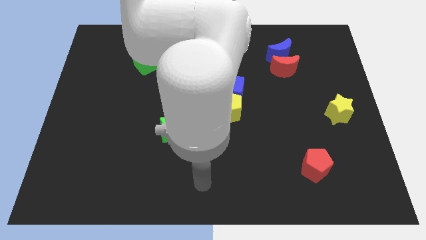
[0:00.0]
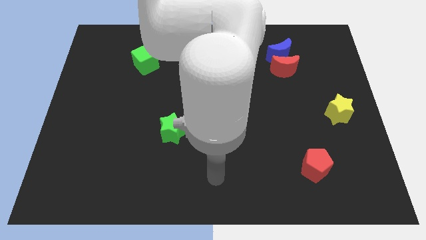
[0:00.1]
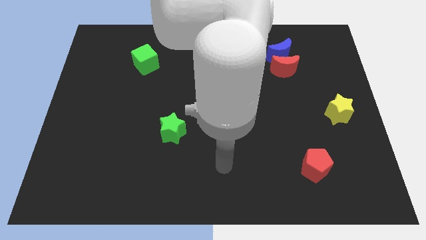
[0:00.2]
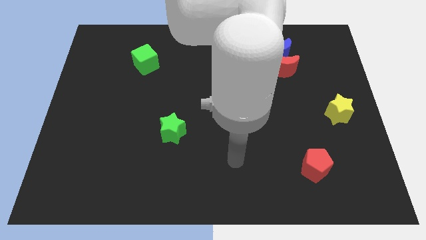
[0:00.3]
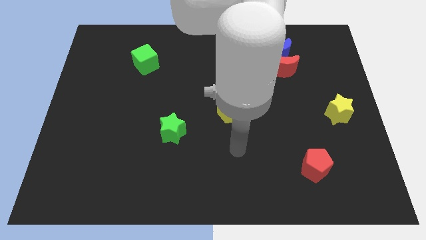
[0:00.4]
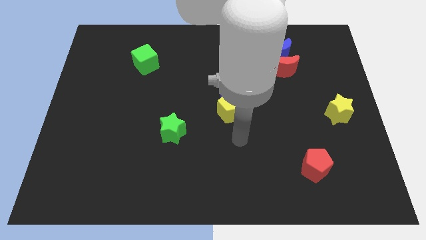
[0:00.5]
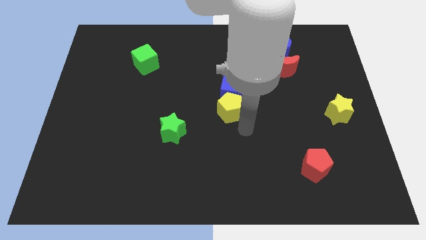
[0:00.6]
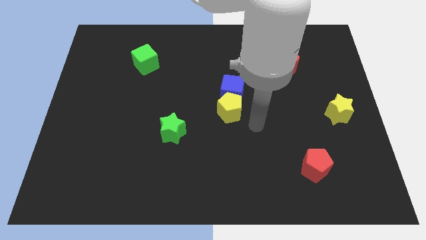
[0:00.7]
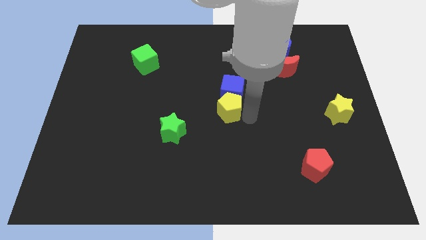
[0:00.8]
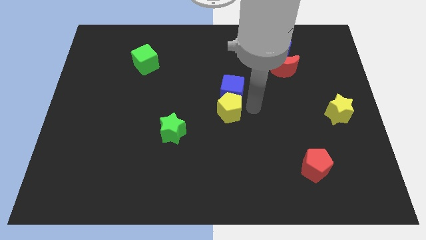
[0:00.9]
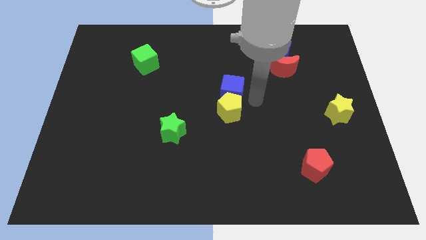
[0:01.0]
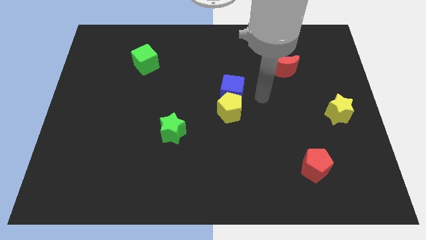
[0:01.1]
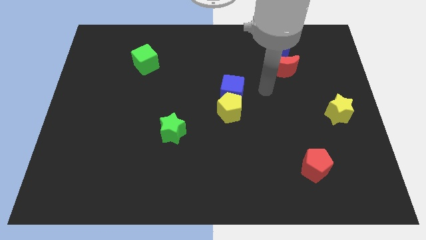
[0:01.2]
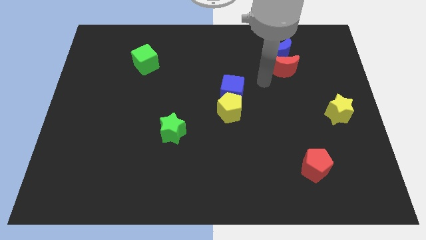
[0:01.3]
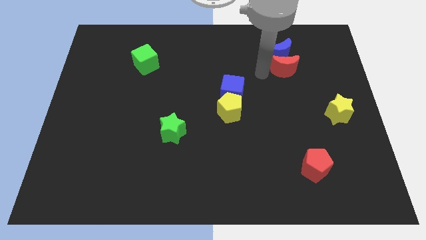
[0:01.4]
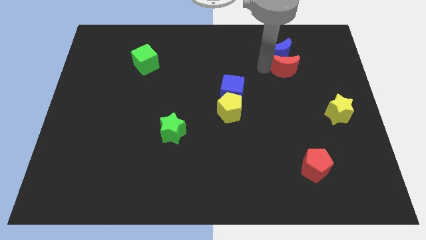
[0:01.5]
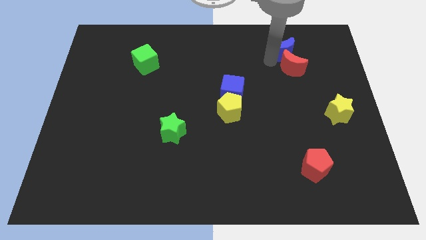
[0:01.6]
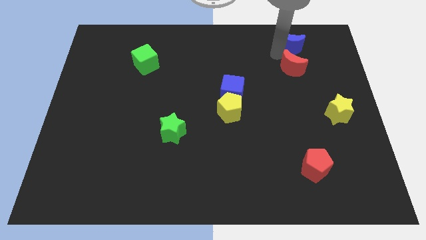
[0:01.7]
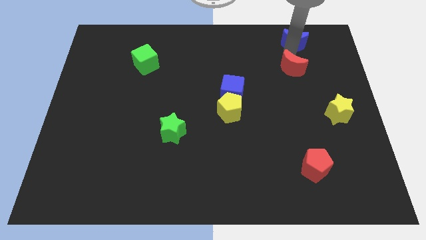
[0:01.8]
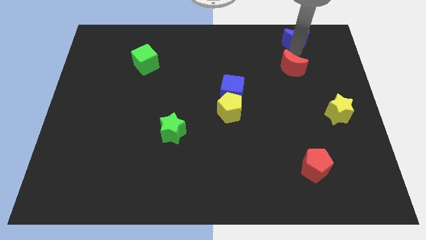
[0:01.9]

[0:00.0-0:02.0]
pull the red moon apart from the blue moon

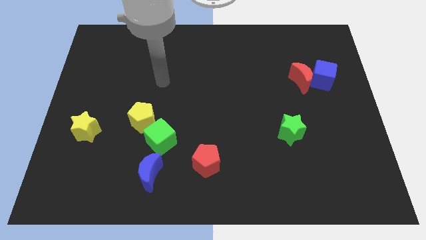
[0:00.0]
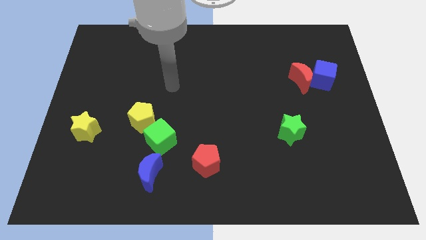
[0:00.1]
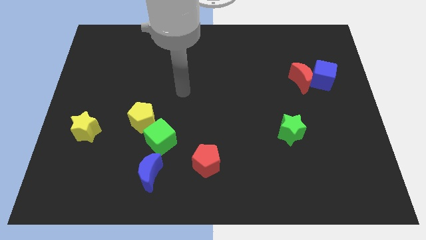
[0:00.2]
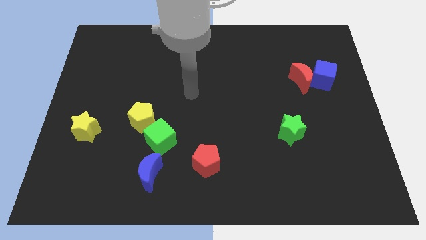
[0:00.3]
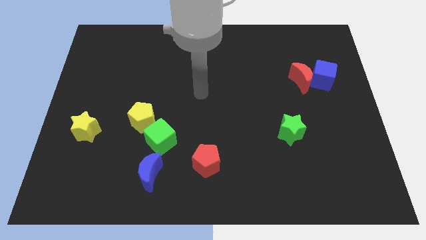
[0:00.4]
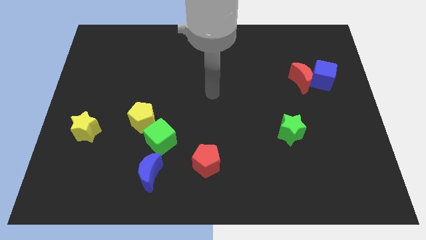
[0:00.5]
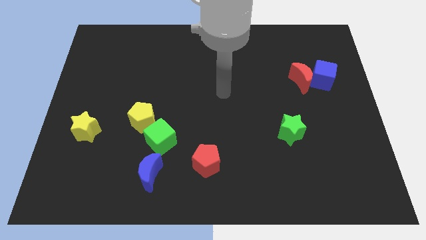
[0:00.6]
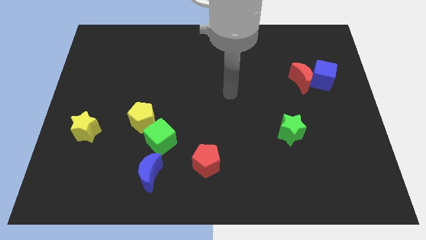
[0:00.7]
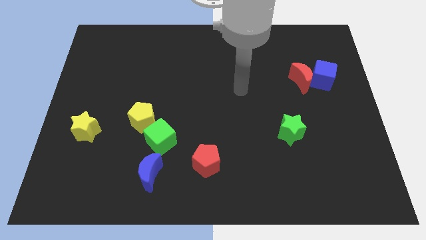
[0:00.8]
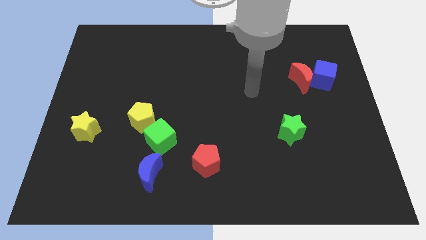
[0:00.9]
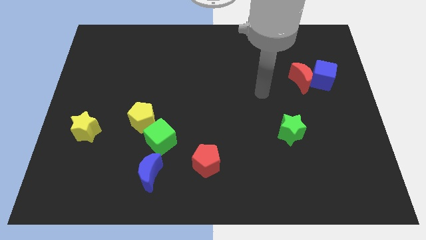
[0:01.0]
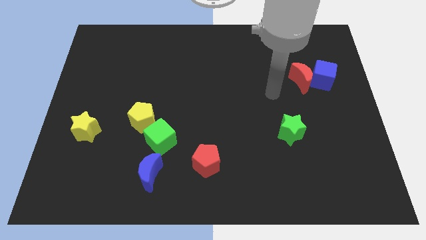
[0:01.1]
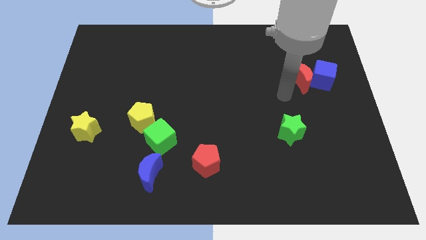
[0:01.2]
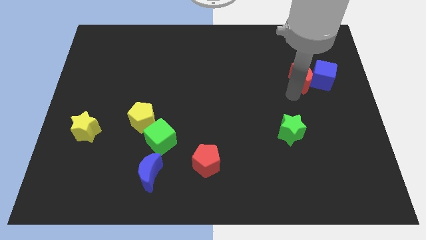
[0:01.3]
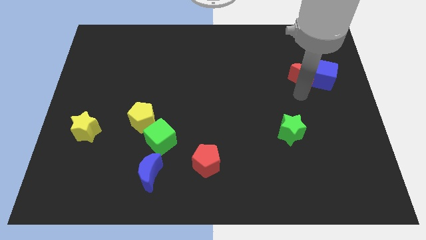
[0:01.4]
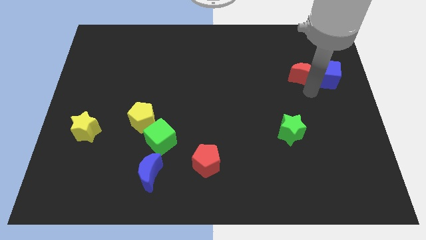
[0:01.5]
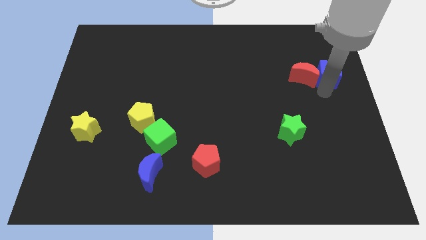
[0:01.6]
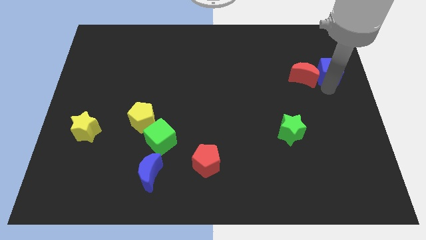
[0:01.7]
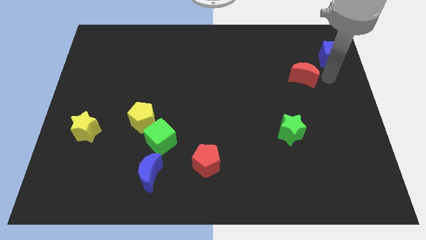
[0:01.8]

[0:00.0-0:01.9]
pull the red moon apart from the blue cube

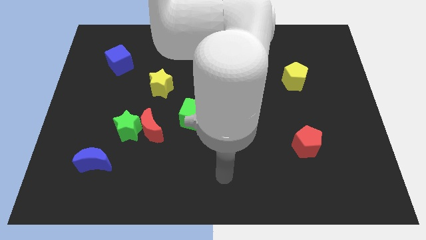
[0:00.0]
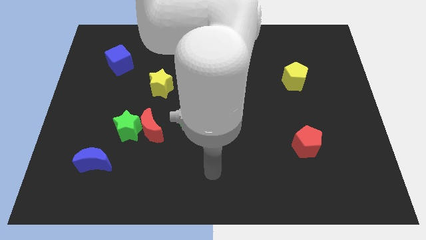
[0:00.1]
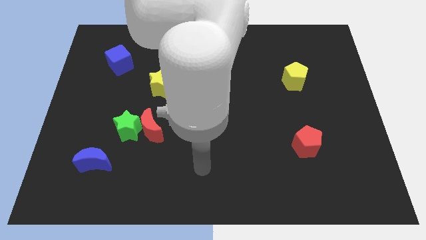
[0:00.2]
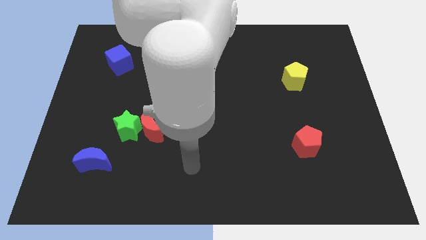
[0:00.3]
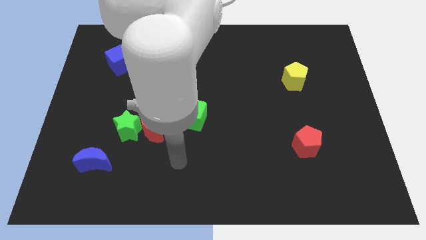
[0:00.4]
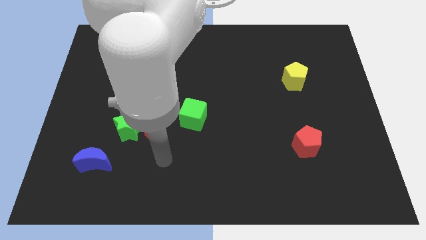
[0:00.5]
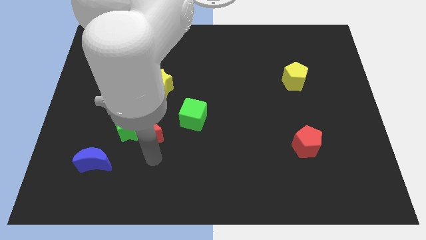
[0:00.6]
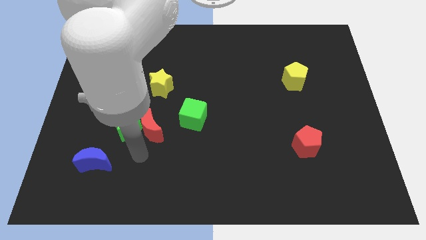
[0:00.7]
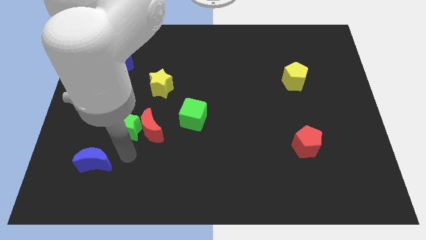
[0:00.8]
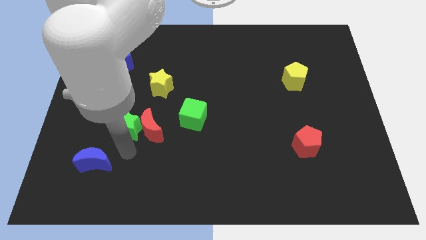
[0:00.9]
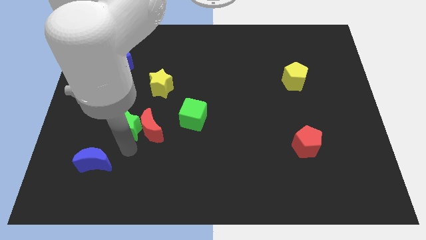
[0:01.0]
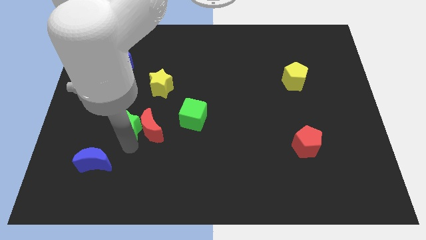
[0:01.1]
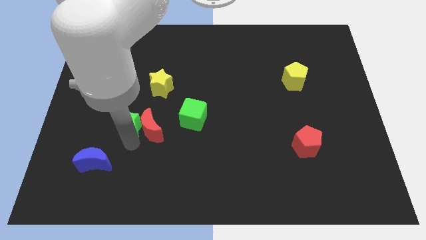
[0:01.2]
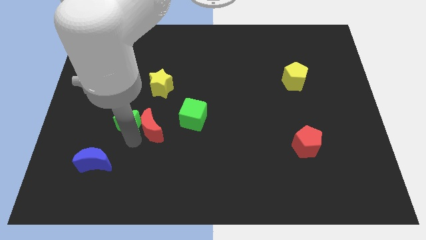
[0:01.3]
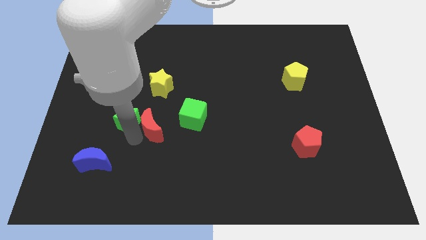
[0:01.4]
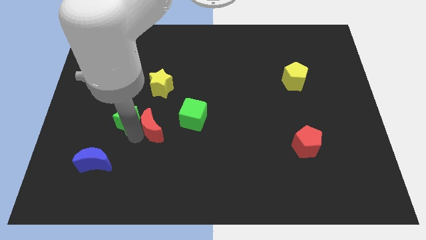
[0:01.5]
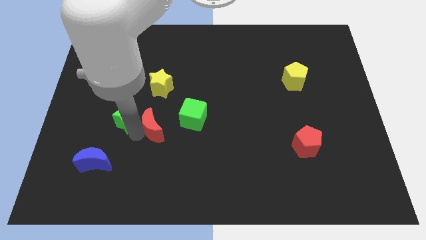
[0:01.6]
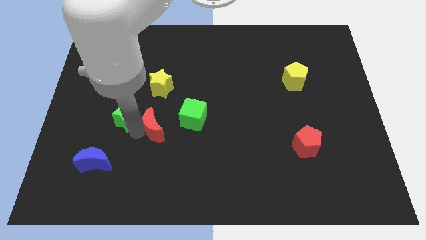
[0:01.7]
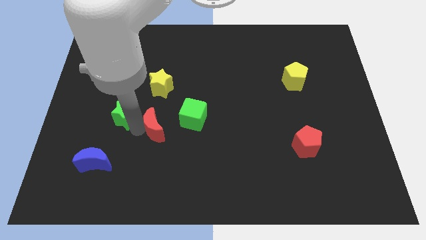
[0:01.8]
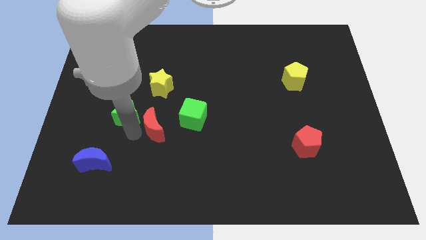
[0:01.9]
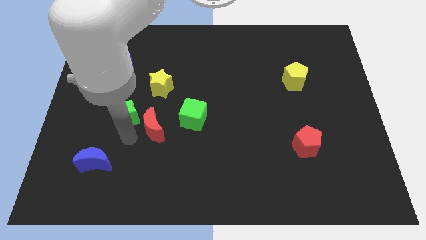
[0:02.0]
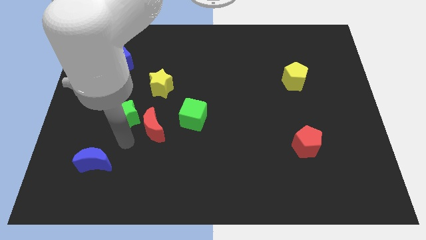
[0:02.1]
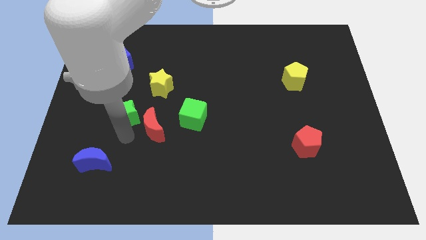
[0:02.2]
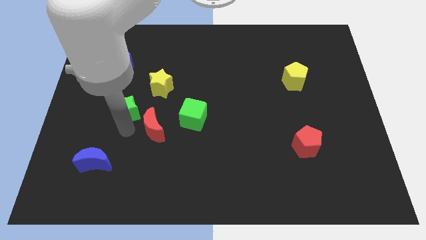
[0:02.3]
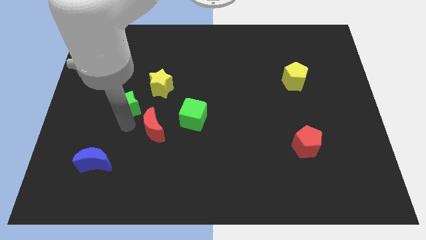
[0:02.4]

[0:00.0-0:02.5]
separate the green star from the red moon and blue moon

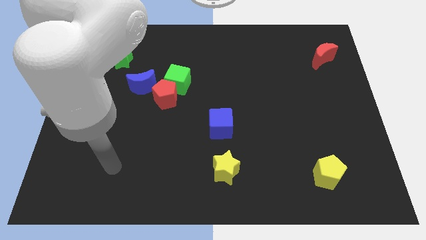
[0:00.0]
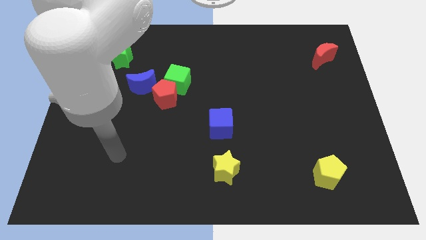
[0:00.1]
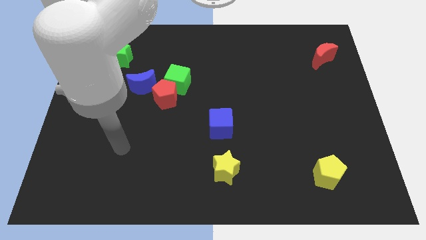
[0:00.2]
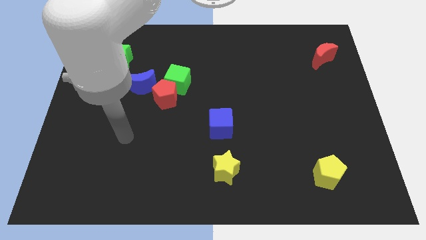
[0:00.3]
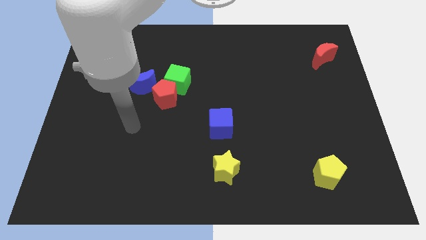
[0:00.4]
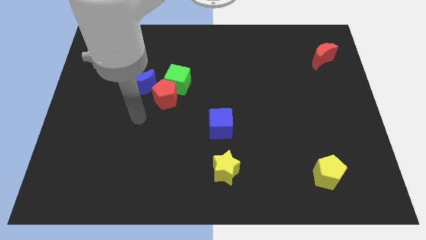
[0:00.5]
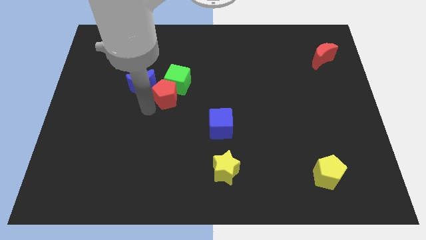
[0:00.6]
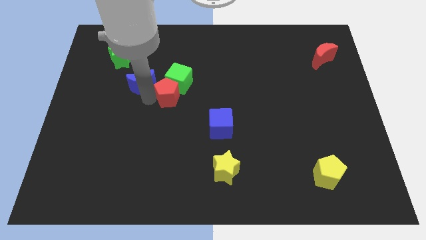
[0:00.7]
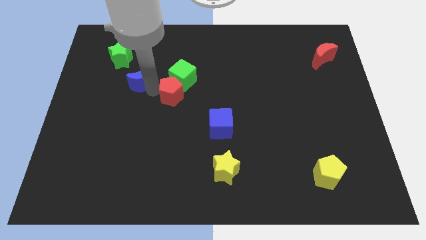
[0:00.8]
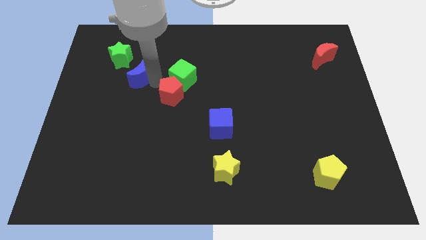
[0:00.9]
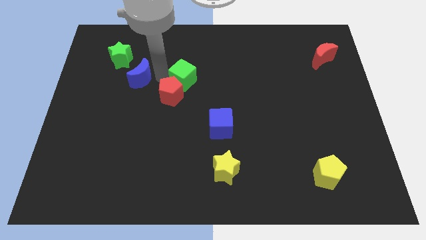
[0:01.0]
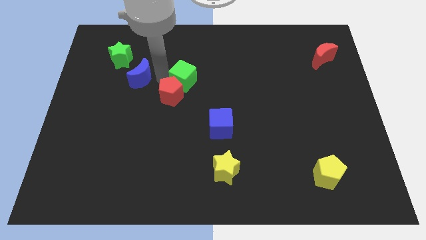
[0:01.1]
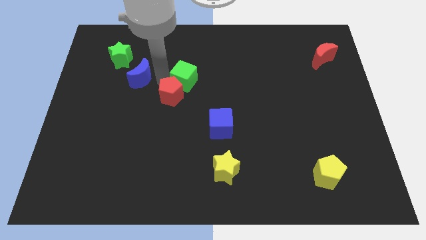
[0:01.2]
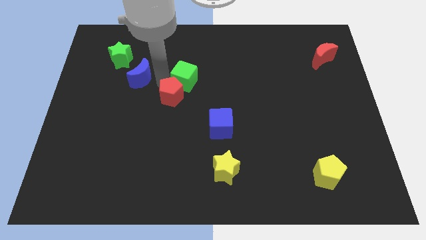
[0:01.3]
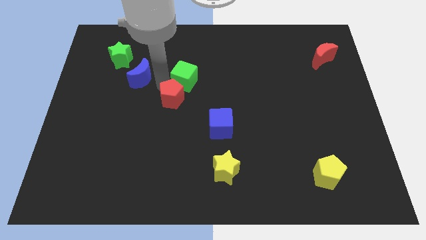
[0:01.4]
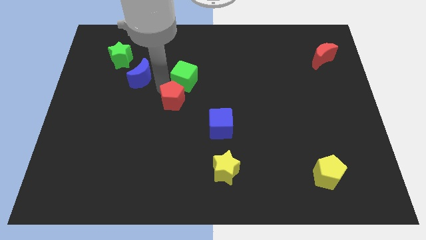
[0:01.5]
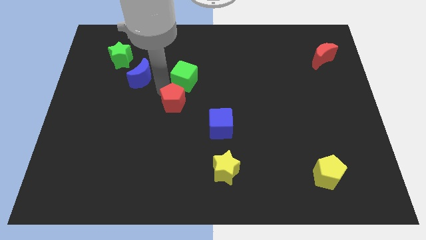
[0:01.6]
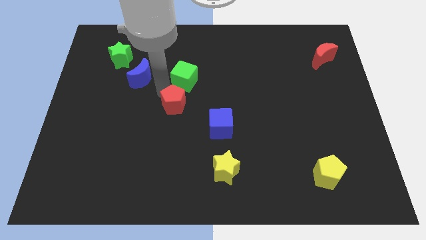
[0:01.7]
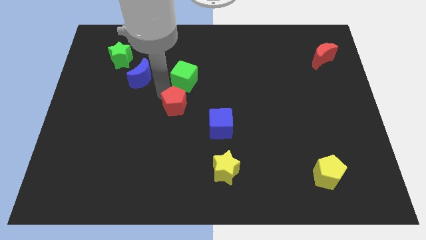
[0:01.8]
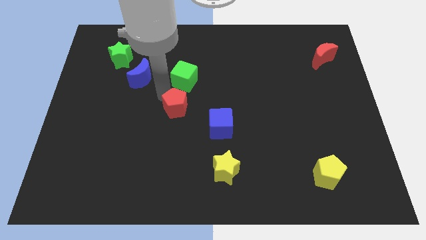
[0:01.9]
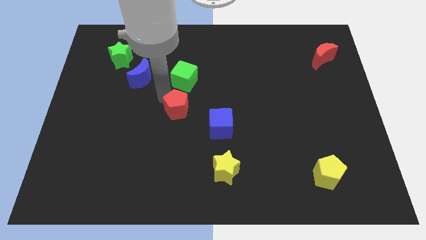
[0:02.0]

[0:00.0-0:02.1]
separate the red pentagon from the green cube and blue moon

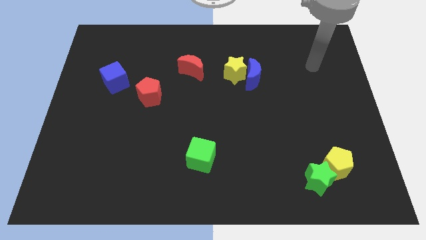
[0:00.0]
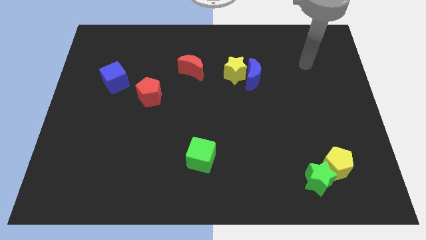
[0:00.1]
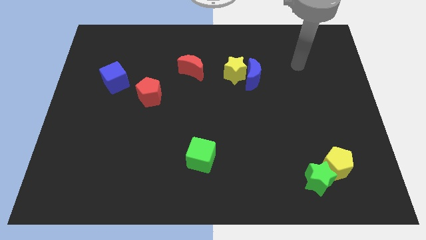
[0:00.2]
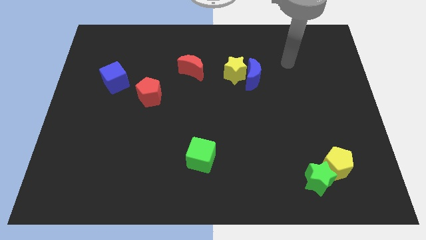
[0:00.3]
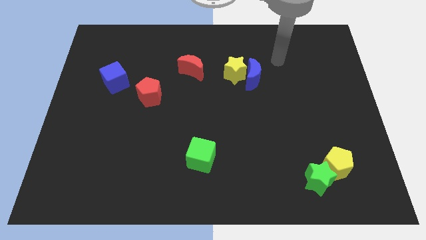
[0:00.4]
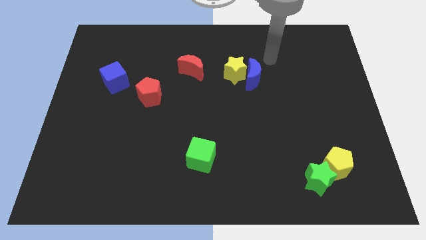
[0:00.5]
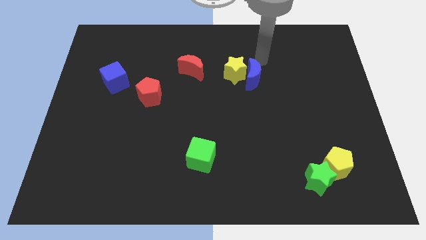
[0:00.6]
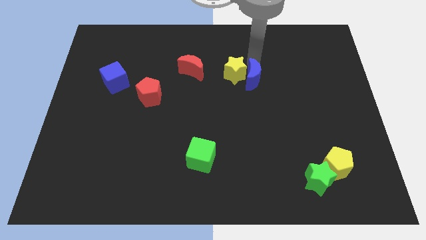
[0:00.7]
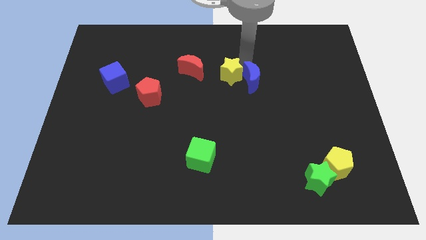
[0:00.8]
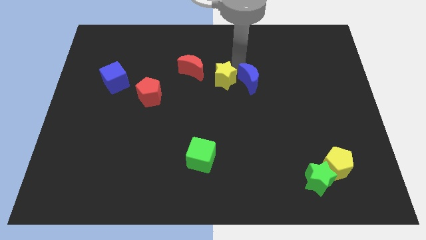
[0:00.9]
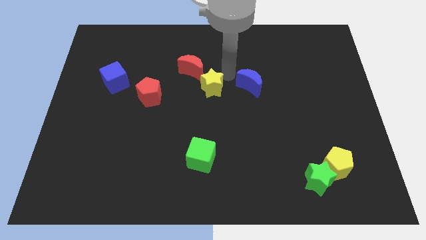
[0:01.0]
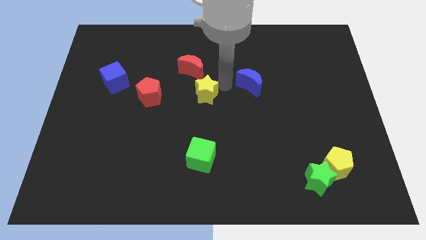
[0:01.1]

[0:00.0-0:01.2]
separate the blue moon from the yellow star
